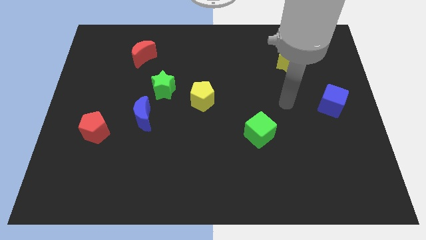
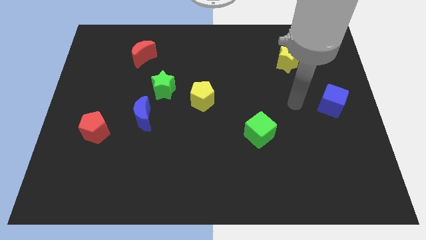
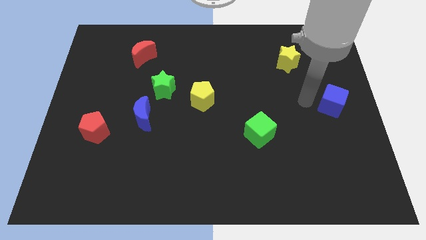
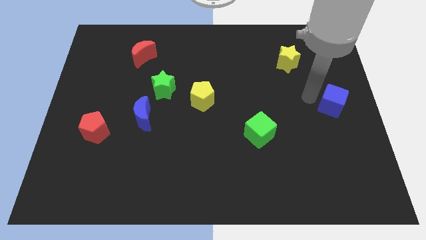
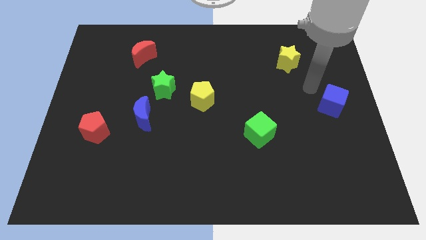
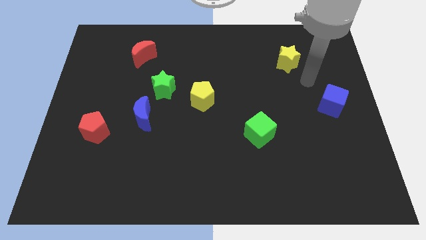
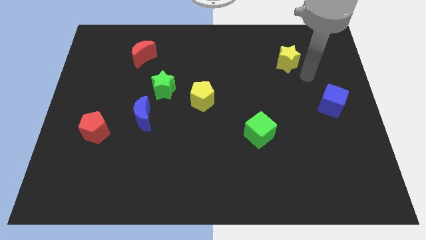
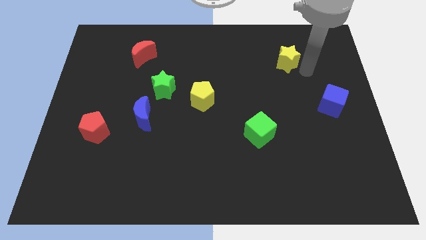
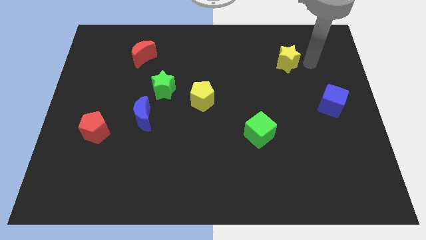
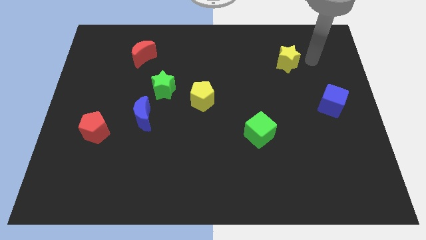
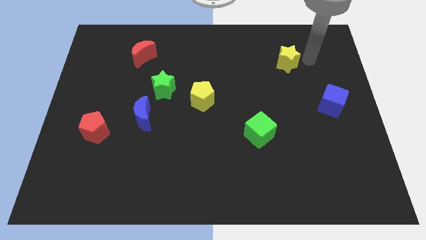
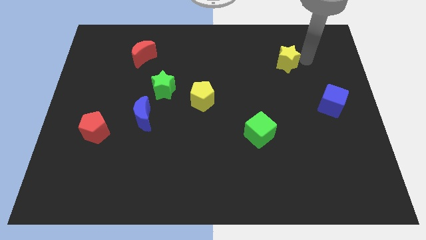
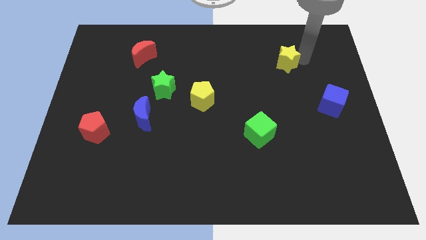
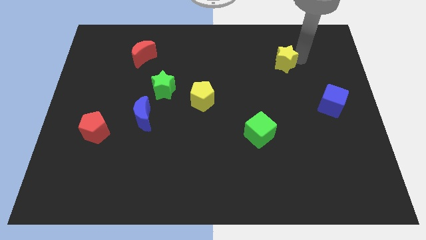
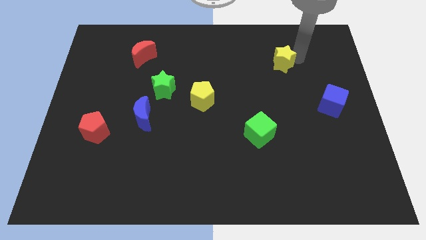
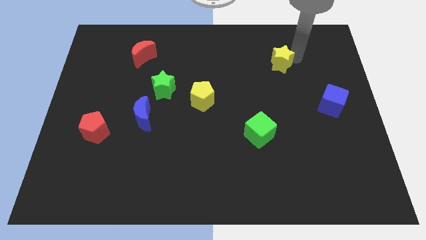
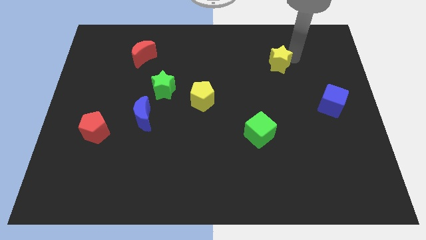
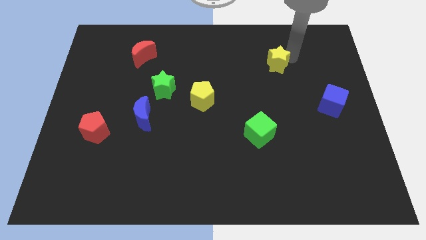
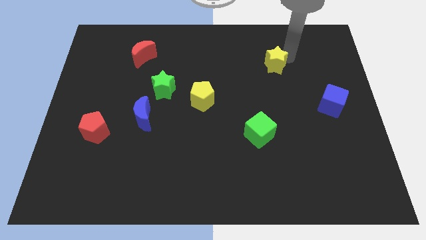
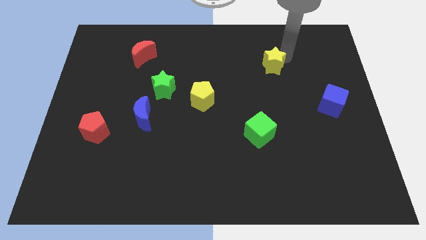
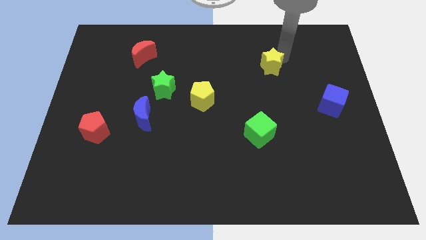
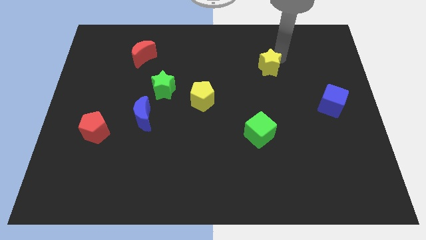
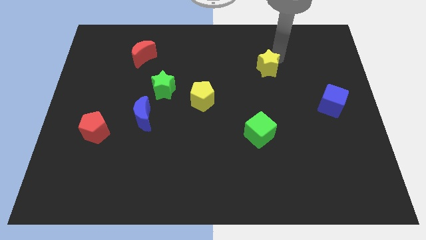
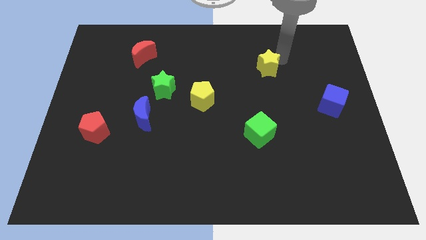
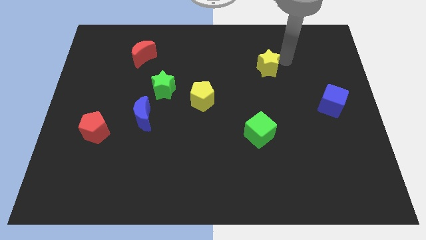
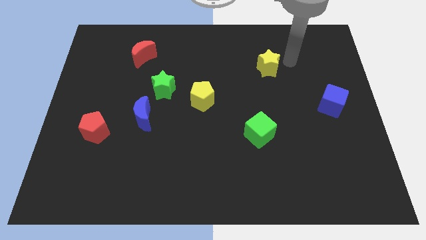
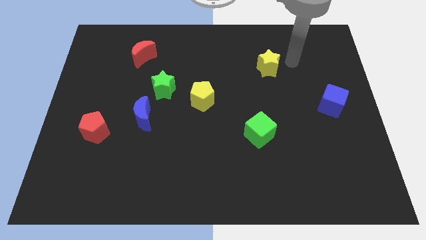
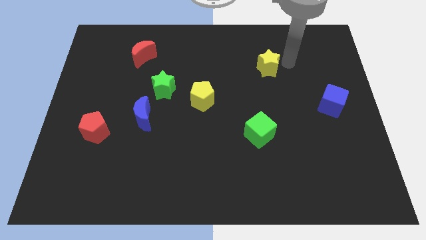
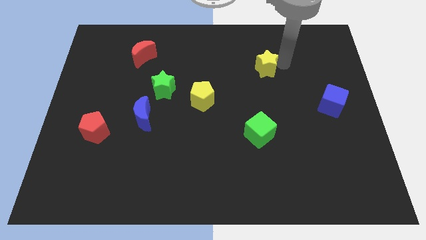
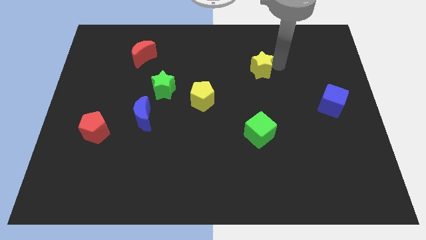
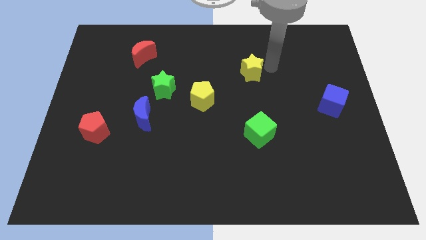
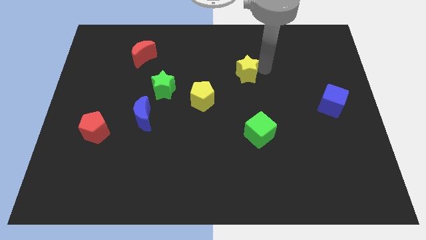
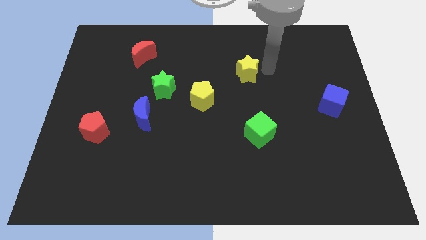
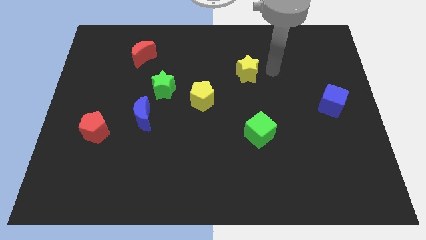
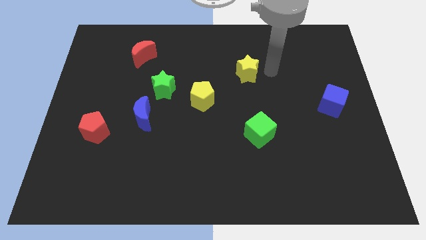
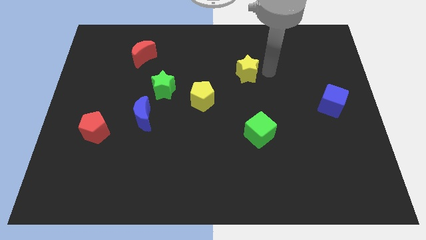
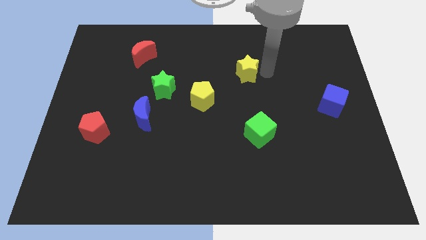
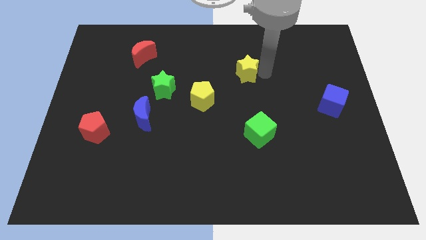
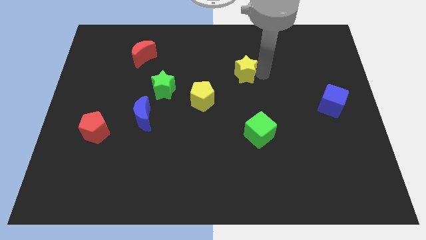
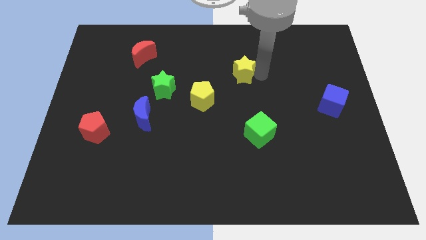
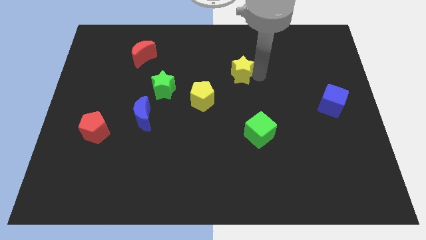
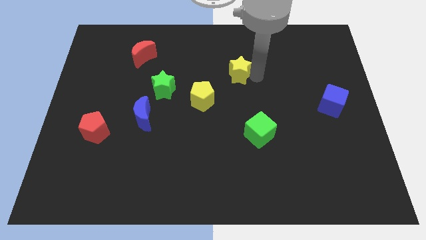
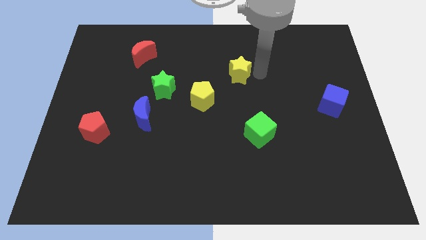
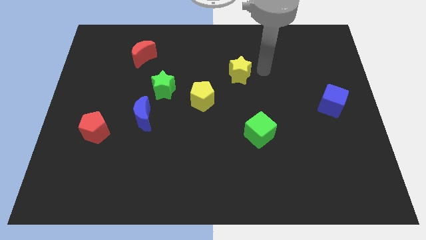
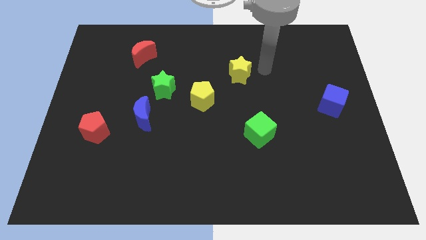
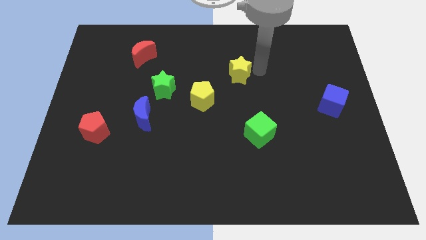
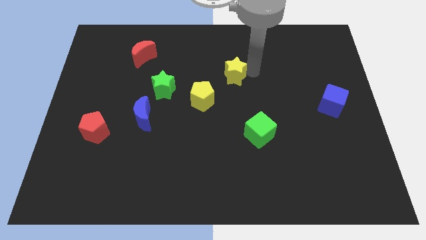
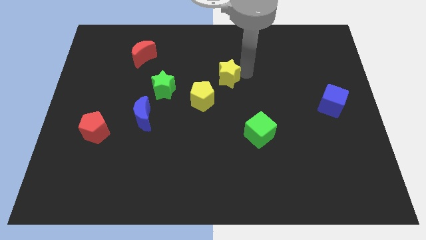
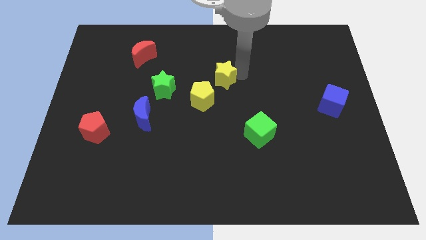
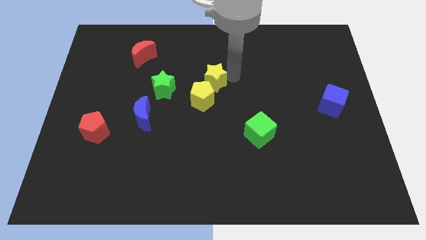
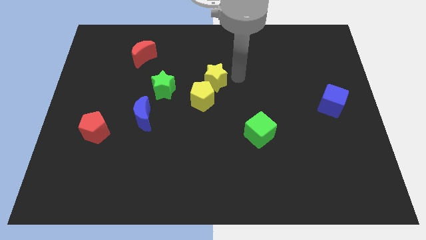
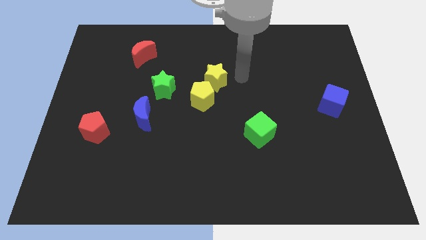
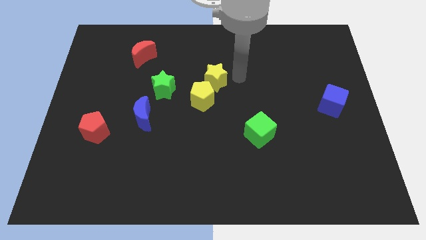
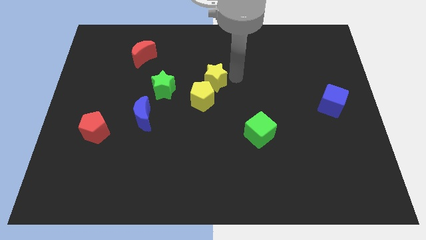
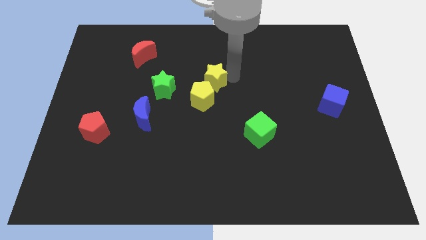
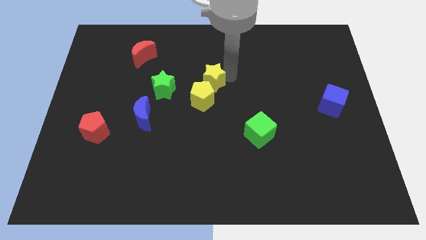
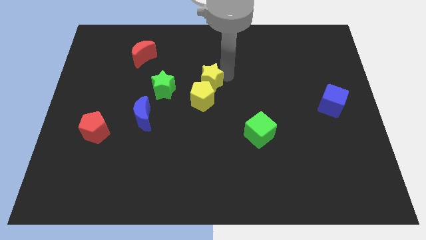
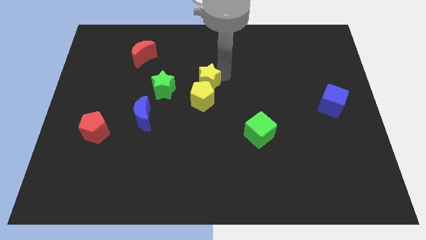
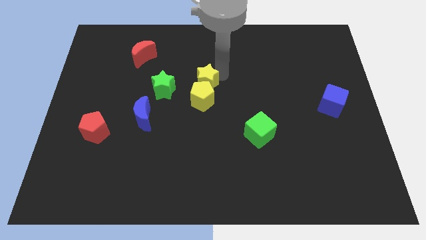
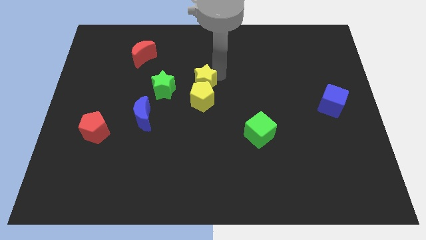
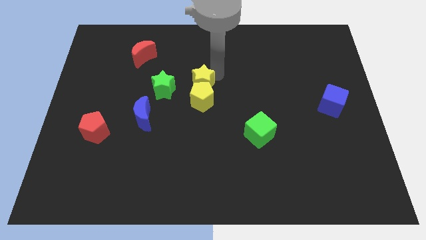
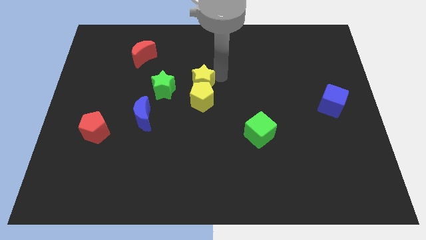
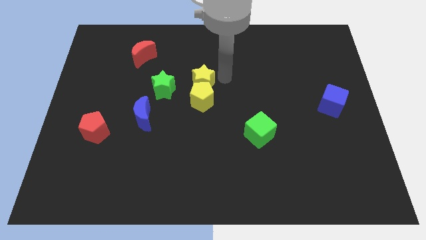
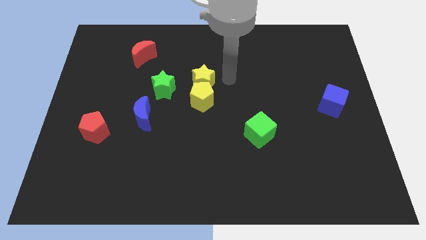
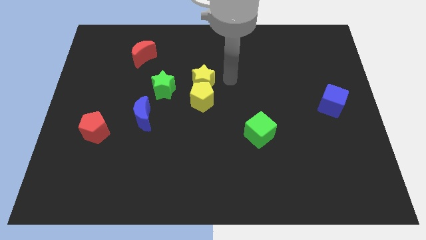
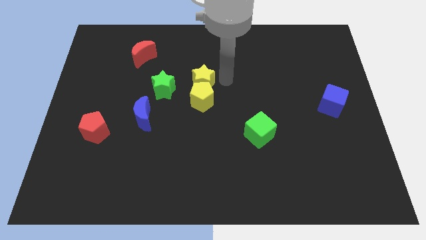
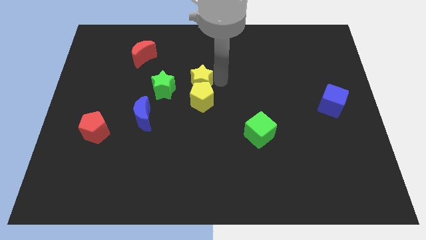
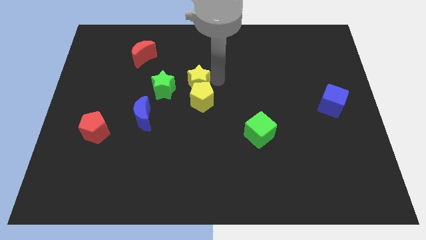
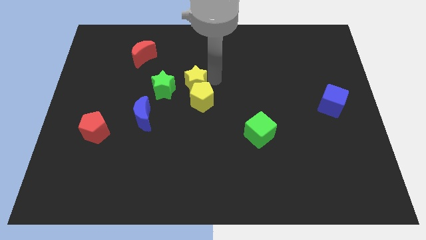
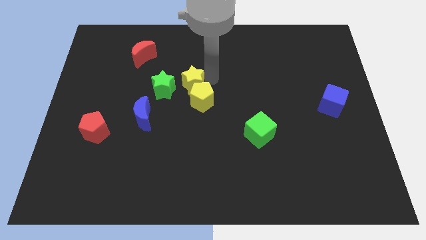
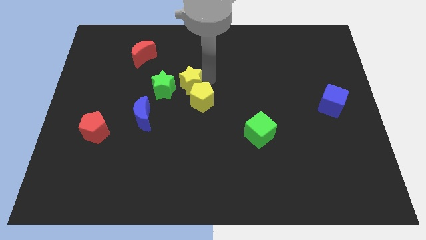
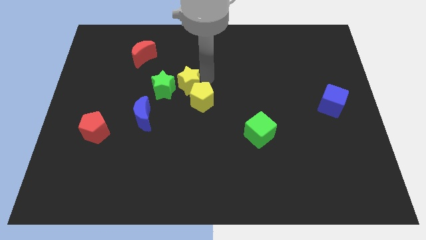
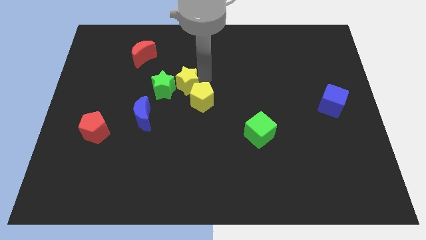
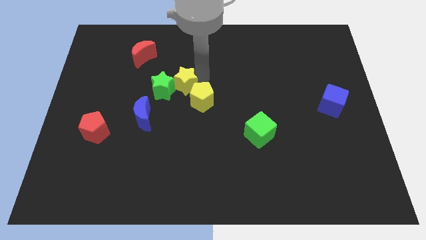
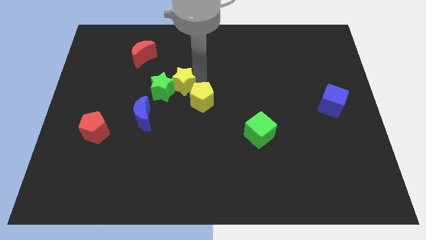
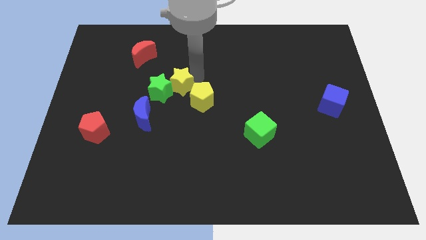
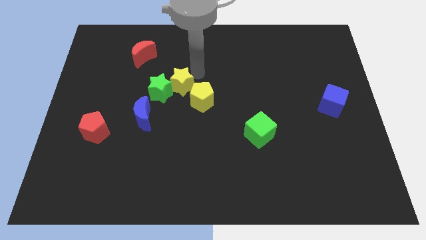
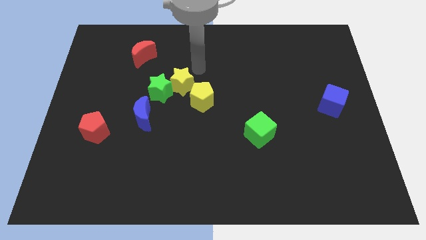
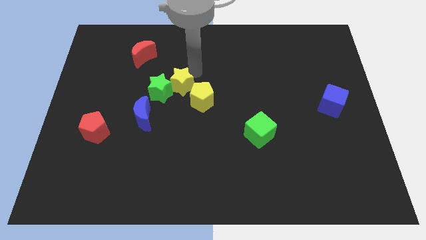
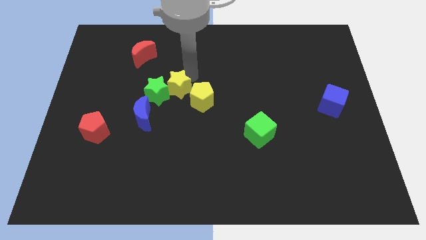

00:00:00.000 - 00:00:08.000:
put the yellow star diagonally up and to the right of the blue moon
